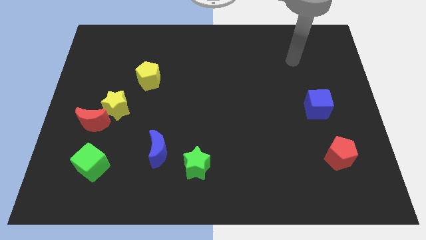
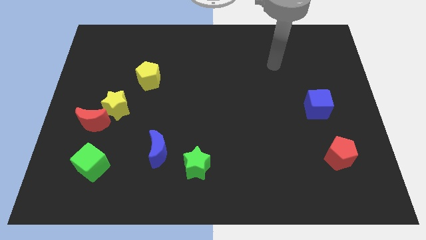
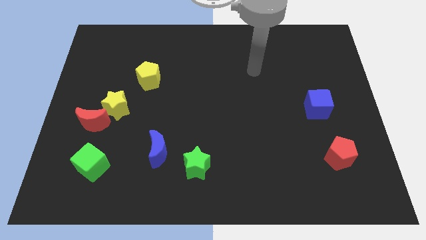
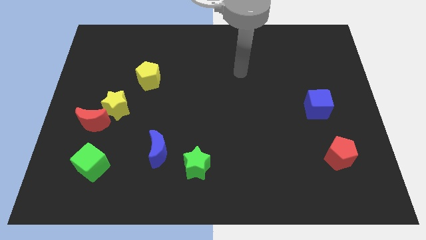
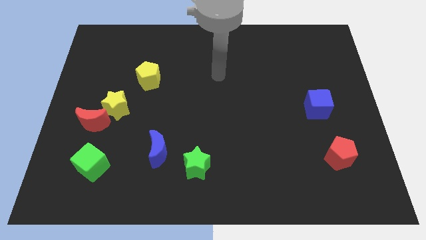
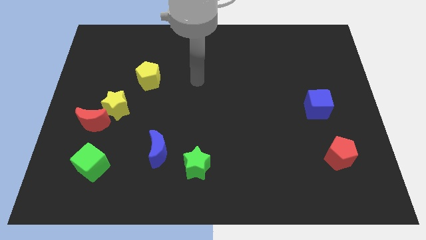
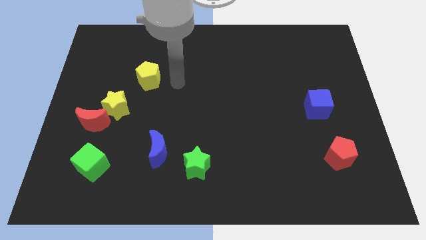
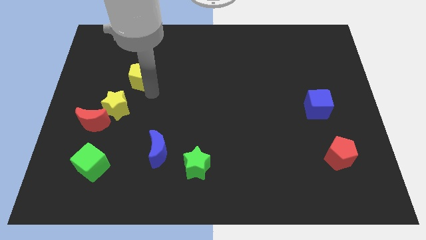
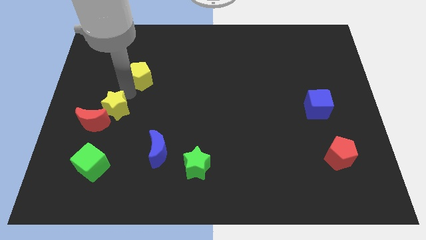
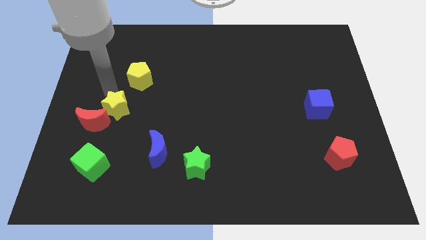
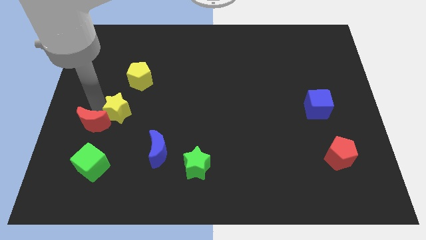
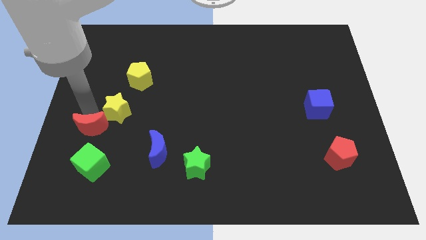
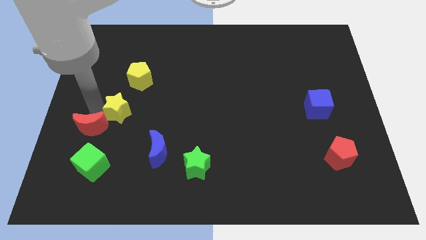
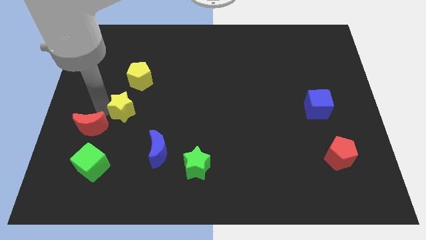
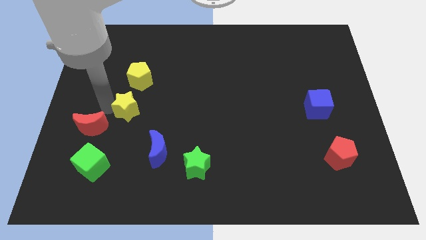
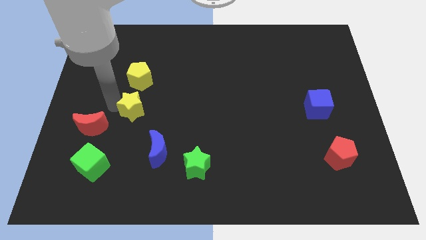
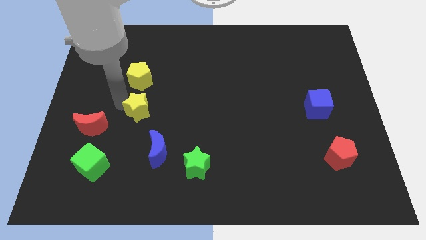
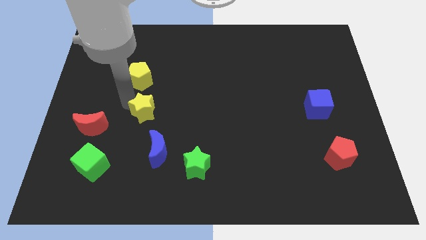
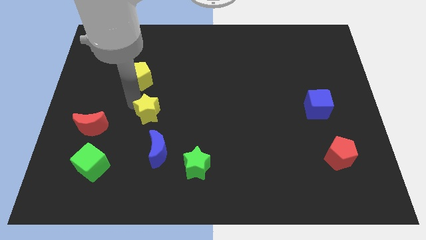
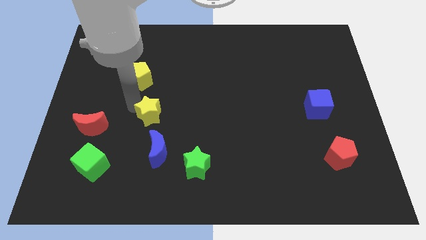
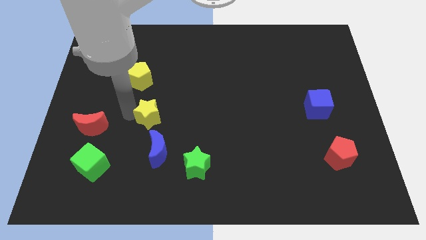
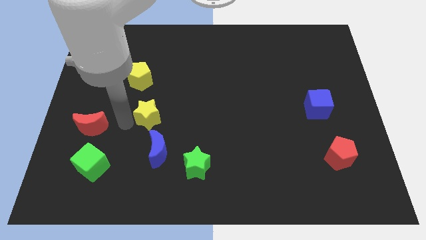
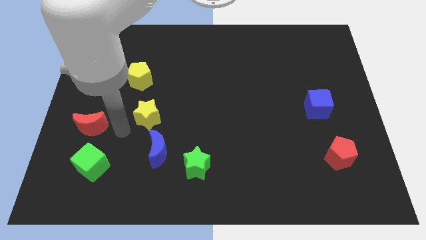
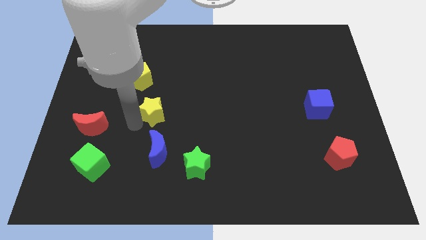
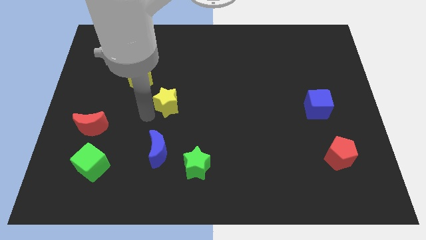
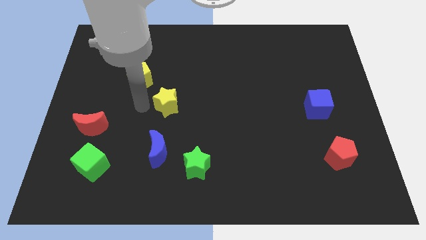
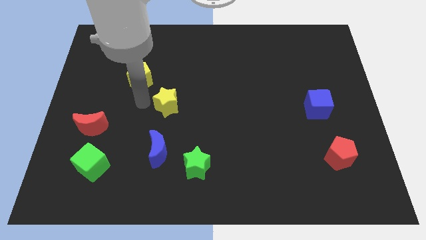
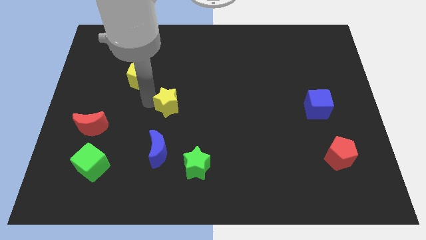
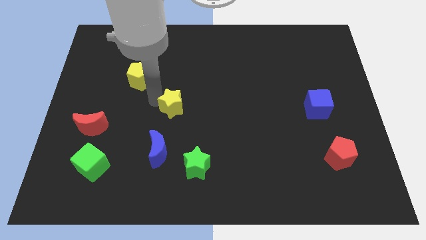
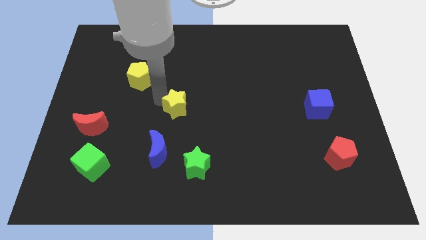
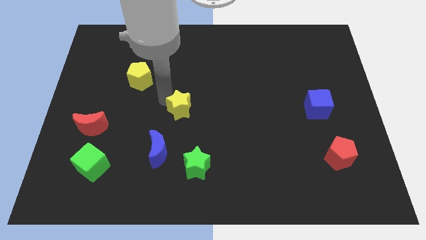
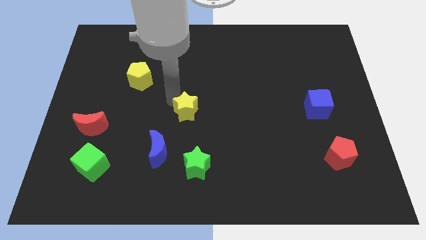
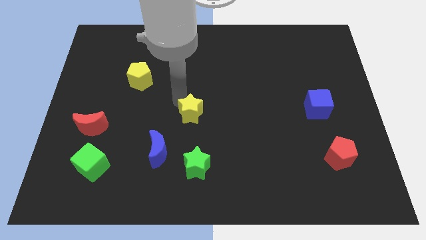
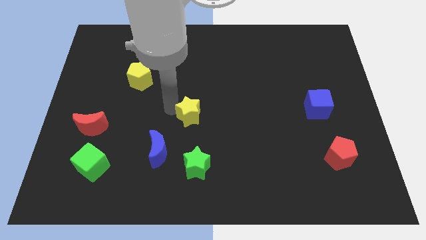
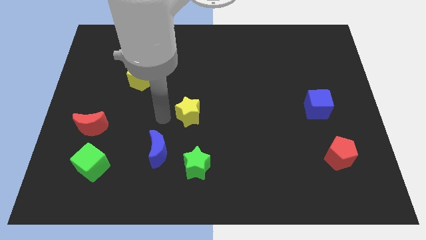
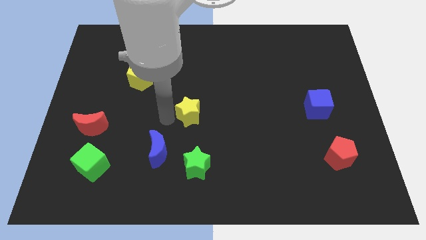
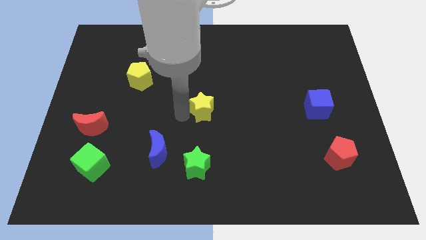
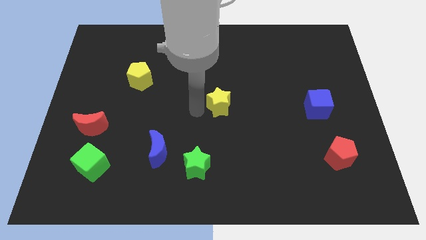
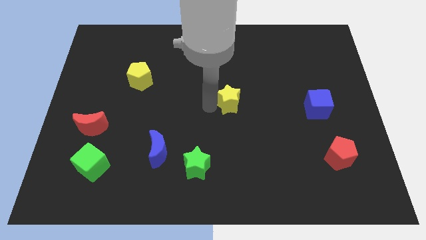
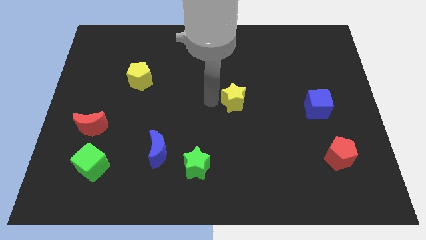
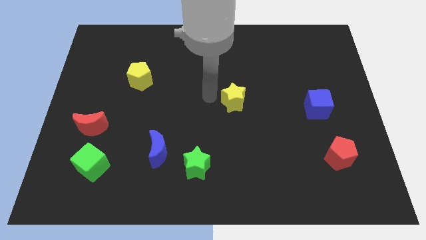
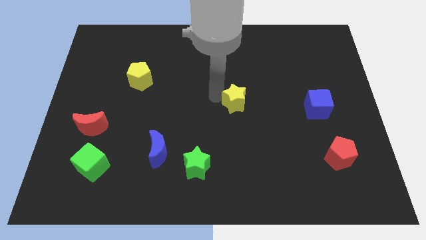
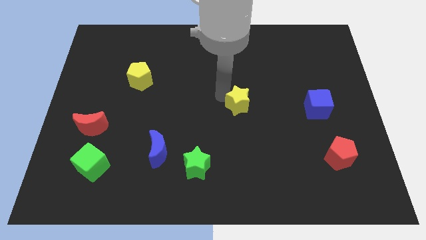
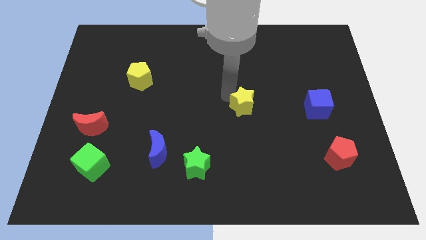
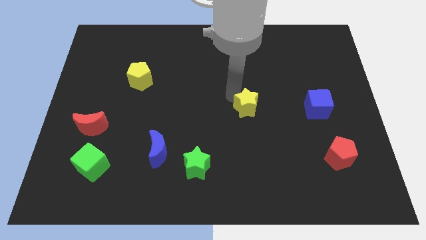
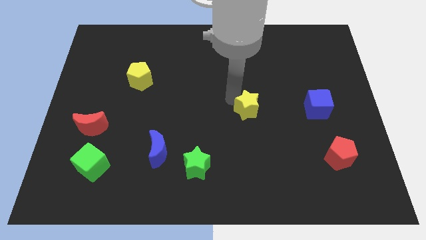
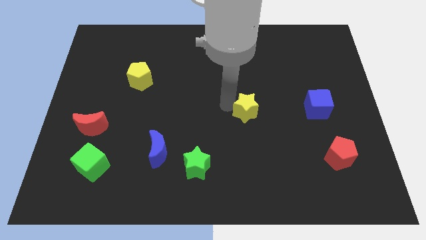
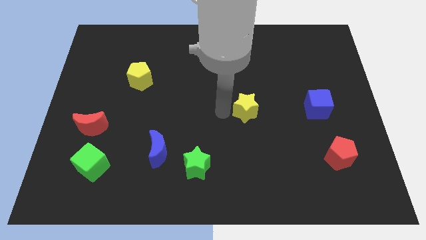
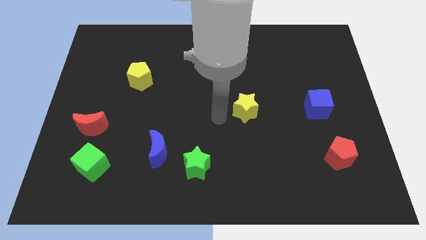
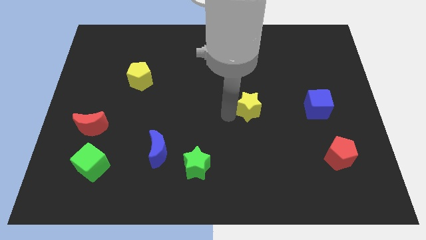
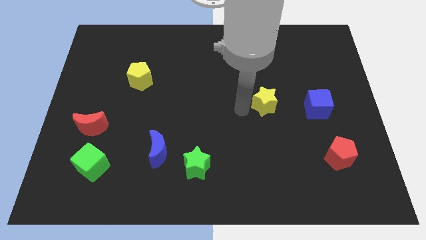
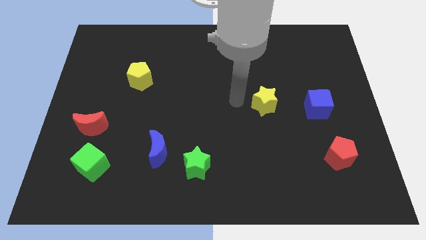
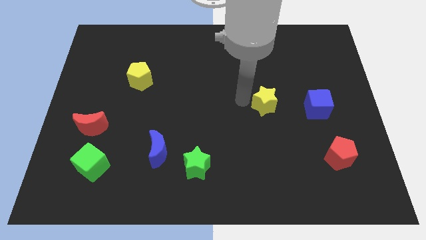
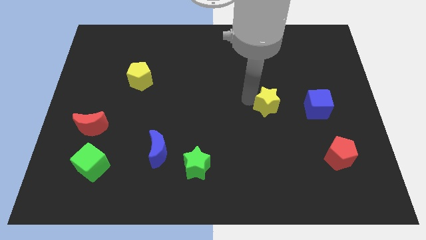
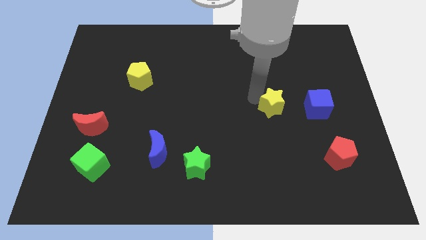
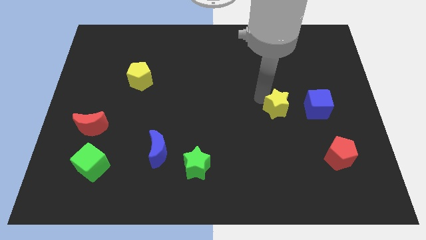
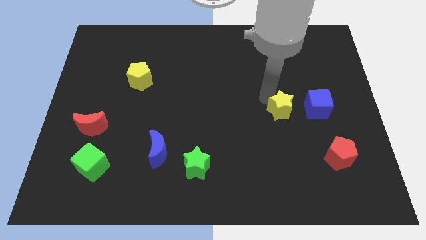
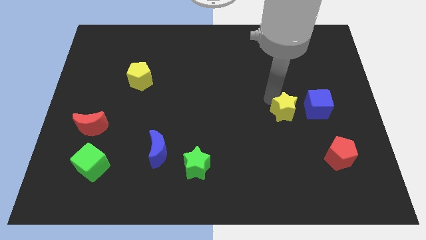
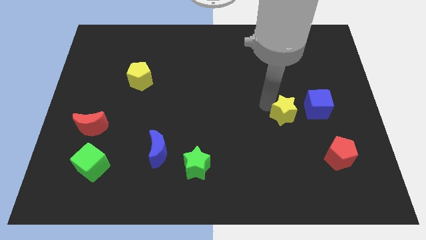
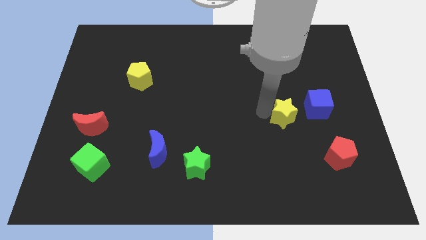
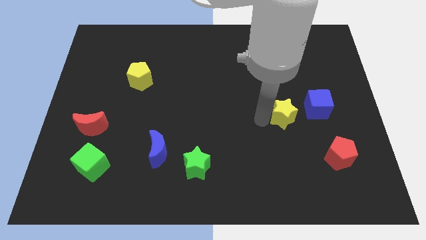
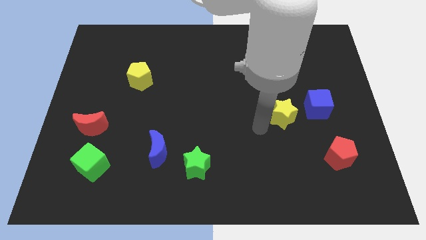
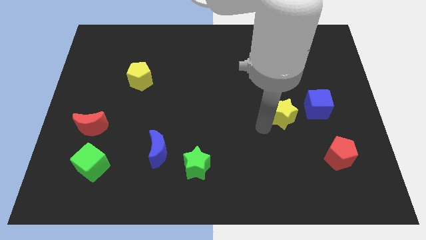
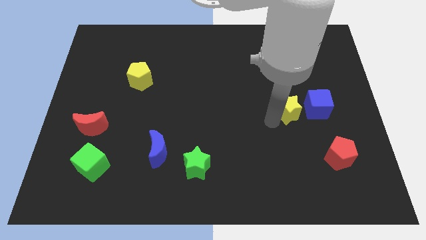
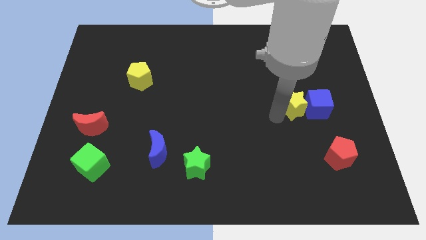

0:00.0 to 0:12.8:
slide the yellow star next to the blue cube

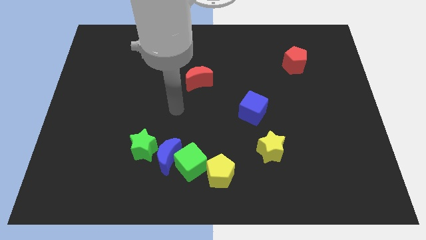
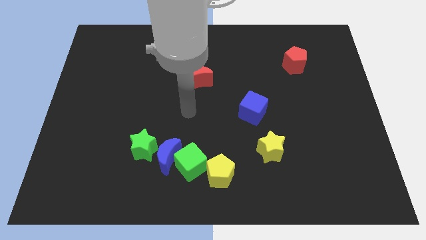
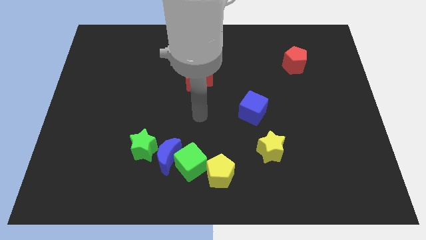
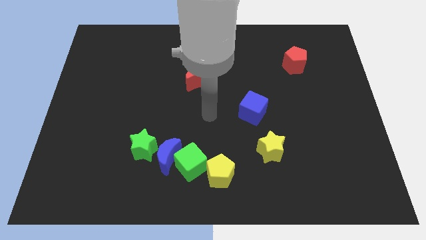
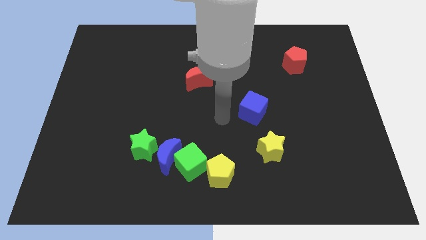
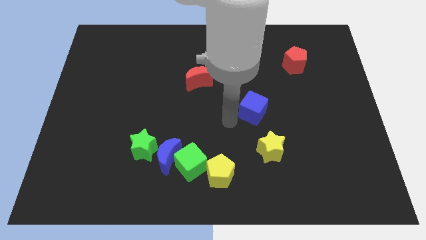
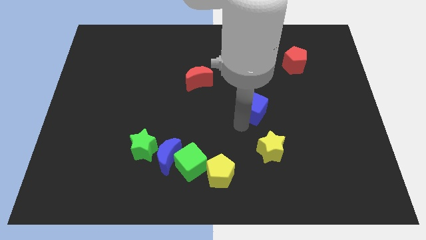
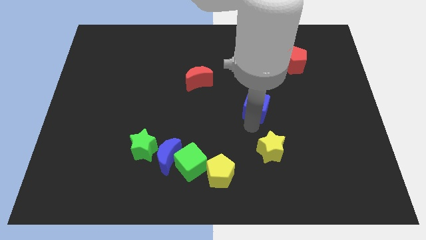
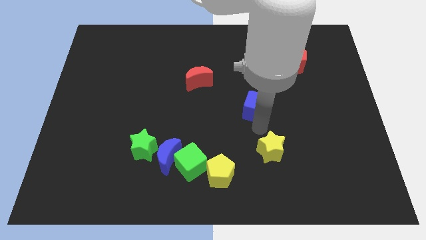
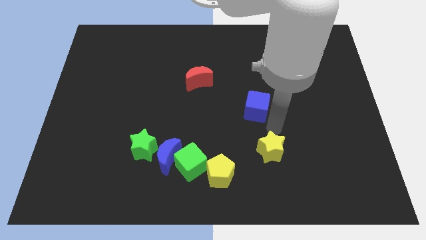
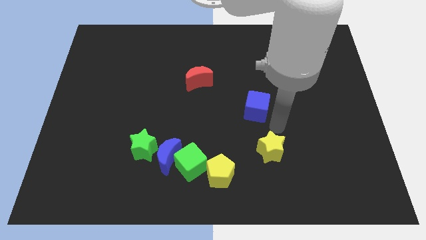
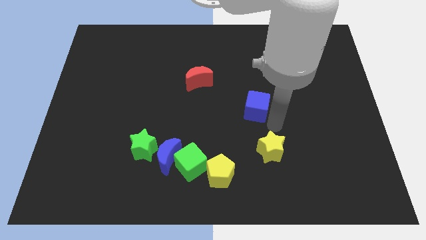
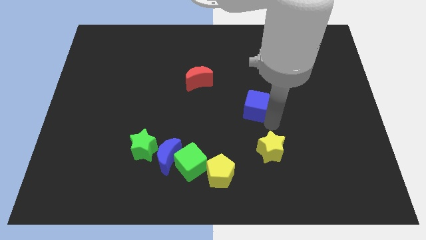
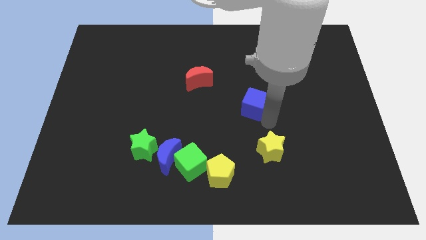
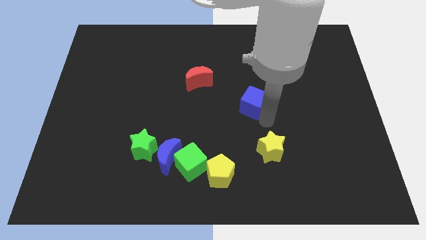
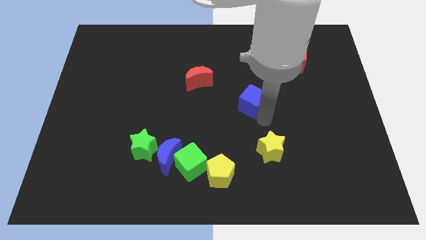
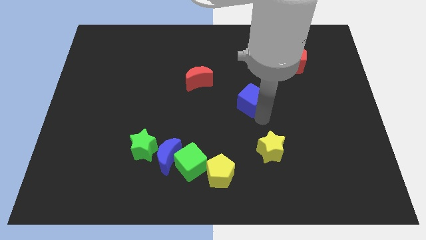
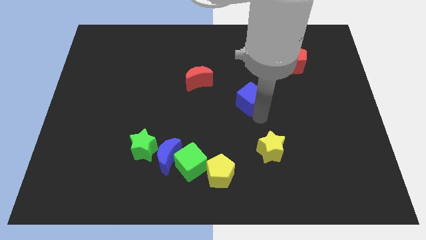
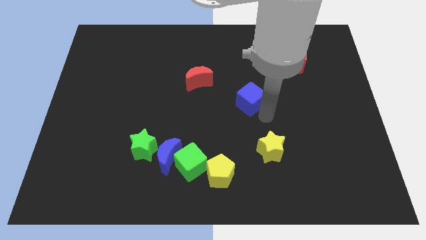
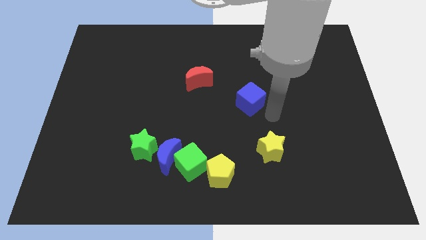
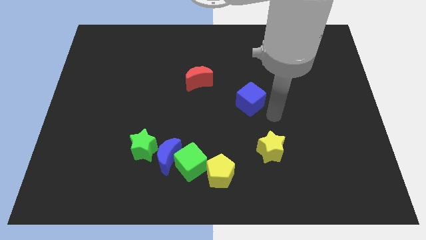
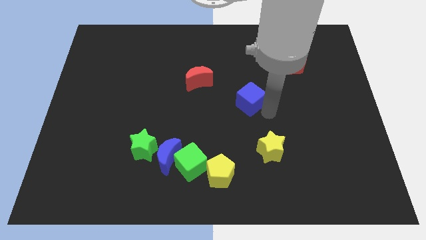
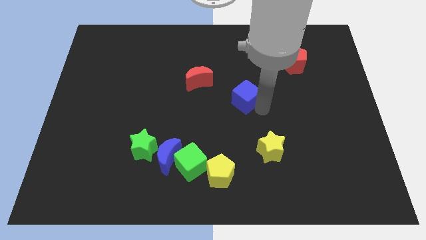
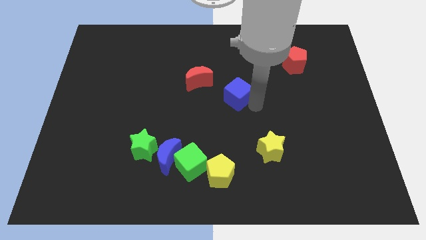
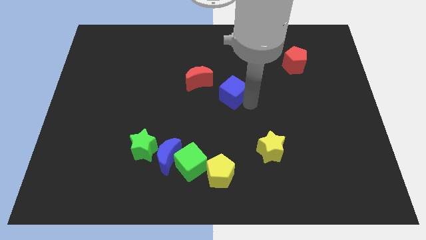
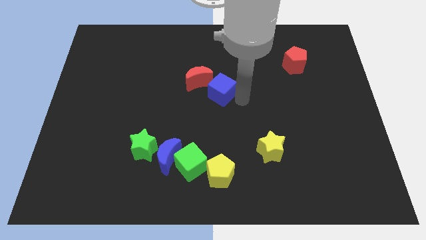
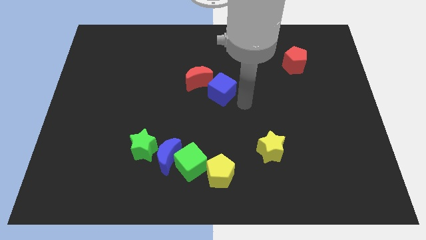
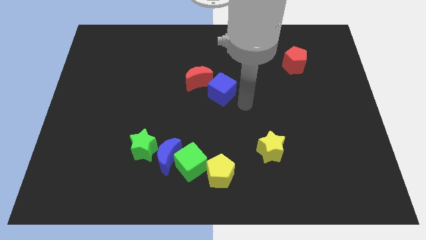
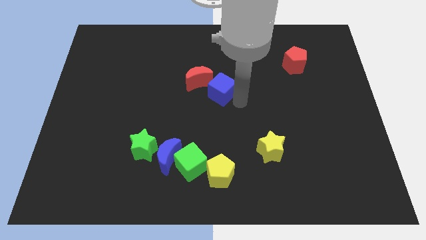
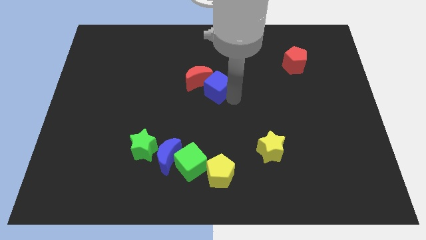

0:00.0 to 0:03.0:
put the blue cube next to the red moon
